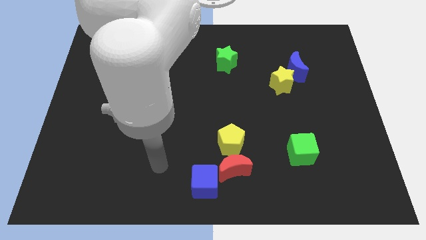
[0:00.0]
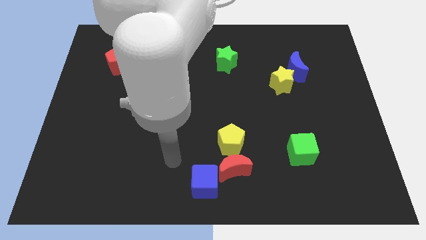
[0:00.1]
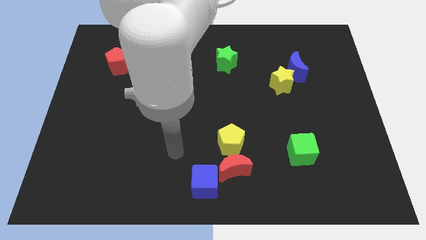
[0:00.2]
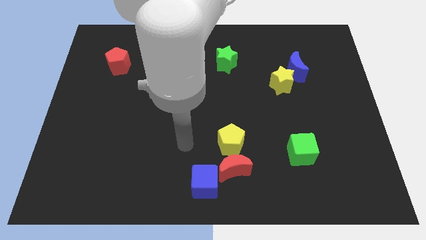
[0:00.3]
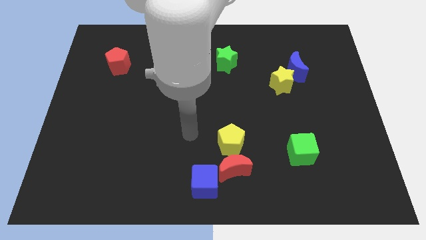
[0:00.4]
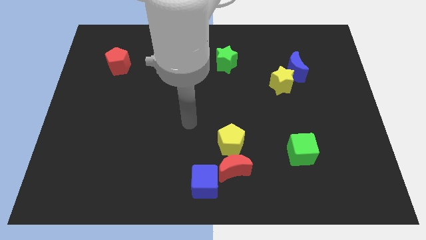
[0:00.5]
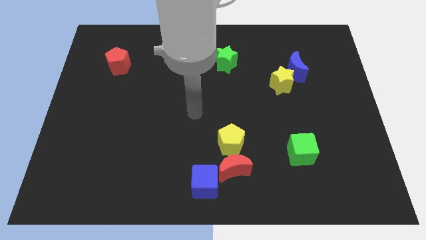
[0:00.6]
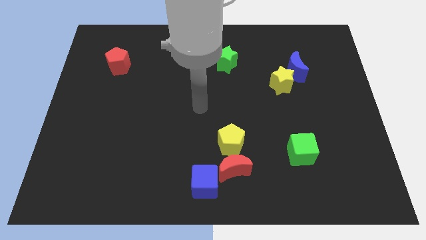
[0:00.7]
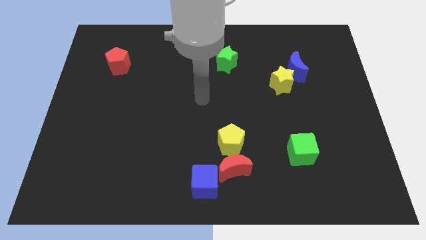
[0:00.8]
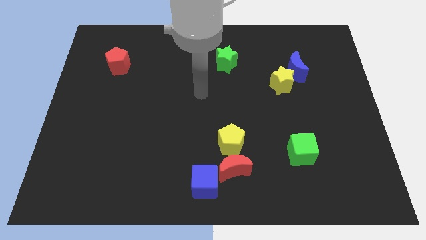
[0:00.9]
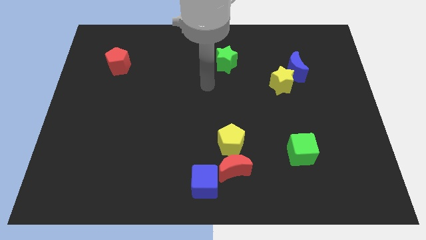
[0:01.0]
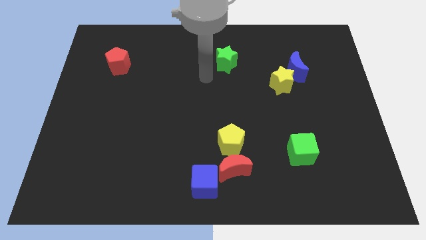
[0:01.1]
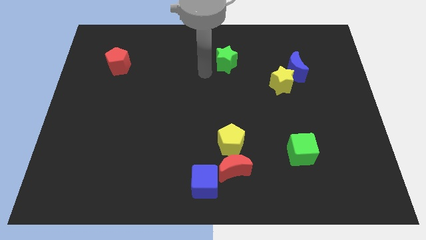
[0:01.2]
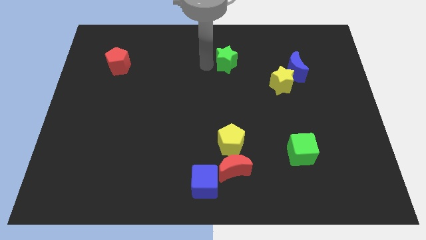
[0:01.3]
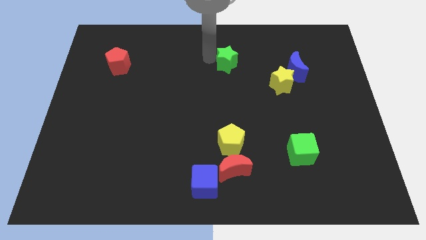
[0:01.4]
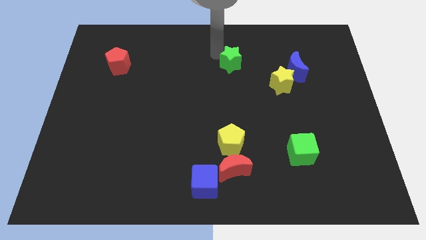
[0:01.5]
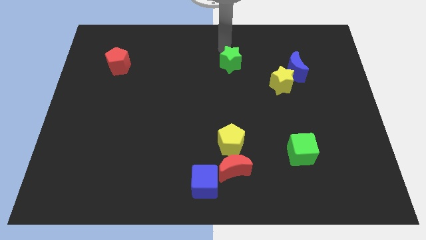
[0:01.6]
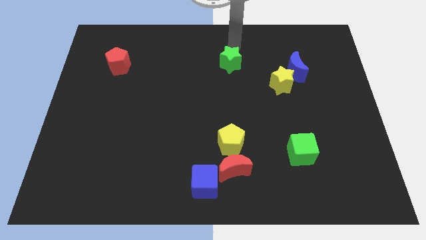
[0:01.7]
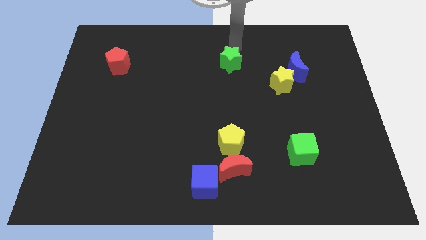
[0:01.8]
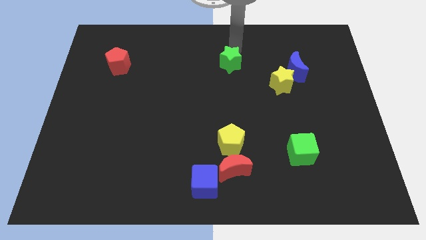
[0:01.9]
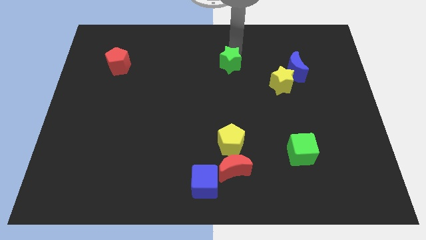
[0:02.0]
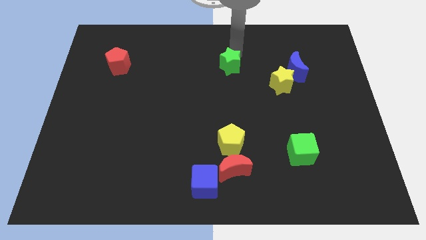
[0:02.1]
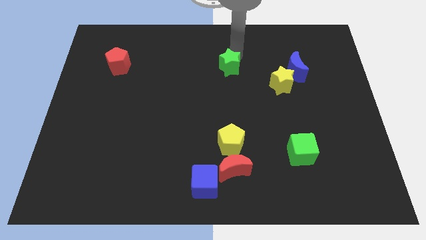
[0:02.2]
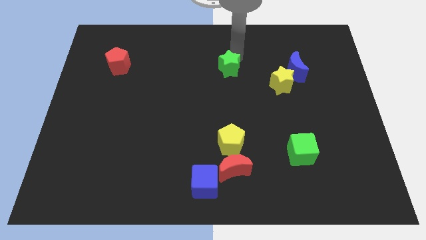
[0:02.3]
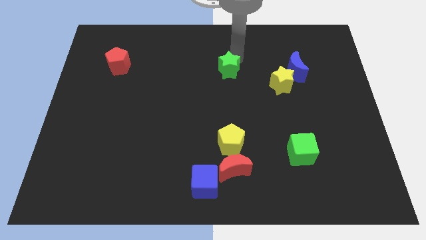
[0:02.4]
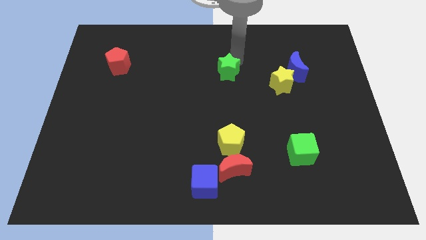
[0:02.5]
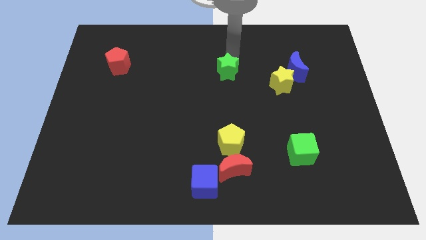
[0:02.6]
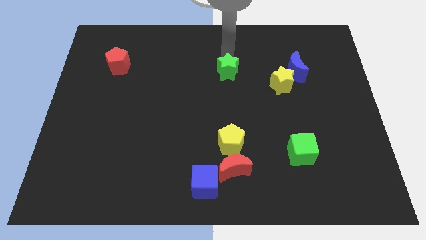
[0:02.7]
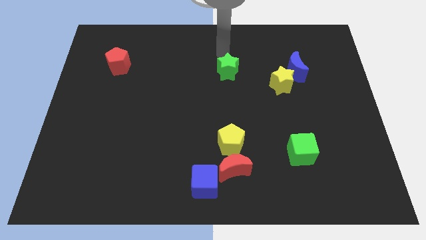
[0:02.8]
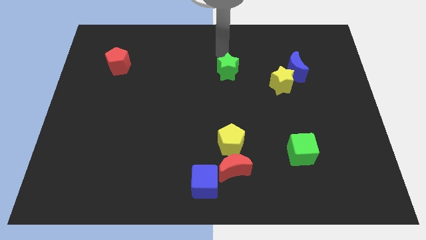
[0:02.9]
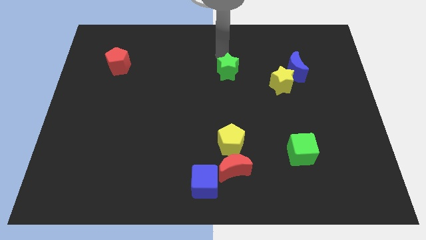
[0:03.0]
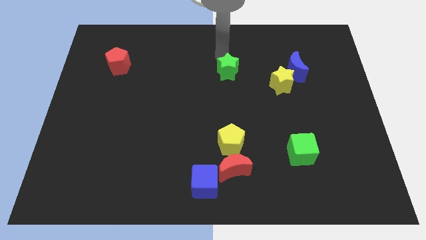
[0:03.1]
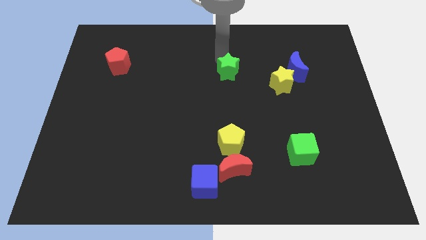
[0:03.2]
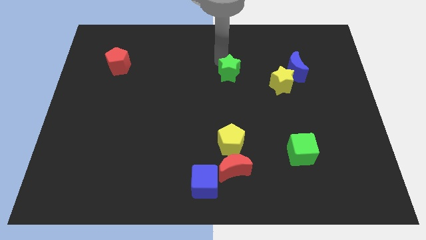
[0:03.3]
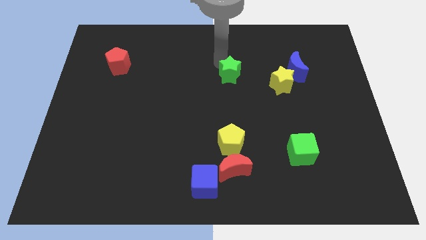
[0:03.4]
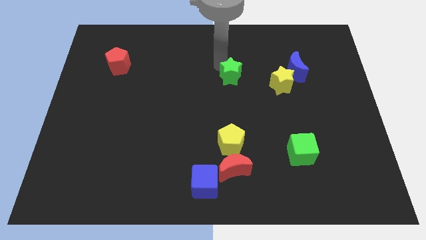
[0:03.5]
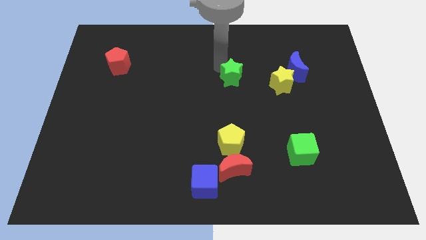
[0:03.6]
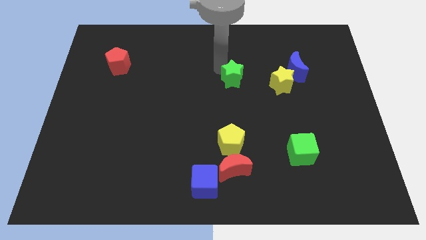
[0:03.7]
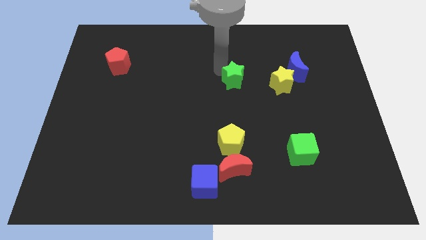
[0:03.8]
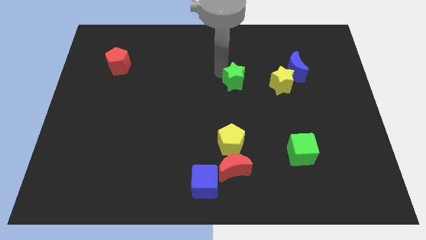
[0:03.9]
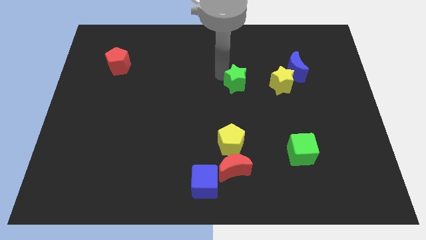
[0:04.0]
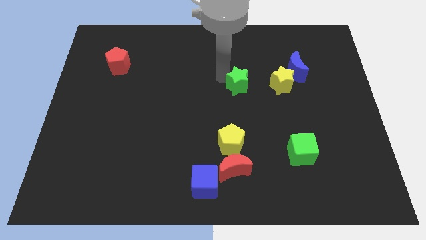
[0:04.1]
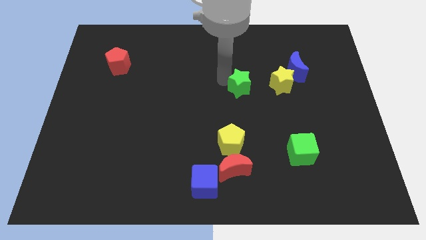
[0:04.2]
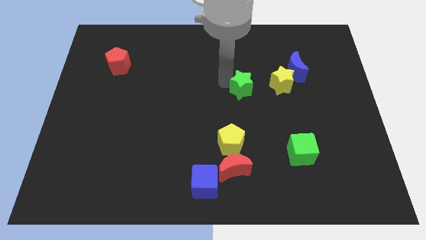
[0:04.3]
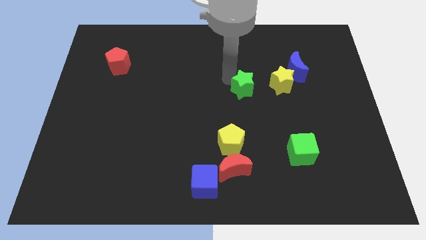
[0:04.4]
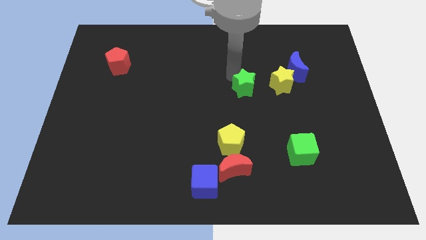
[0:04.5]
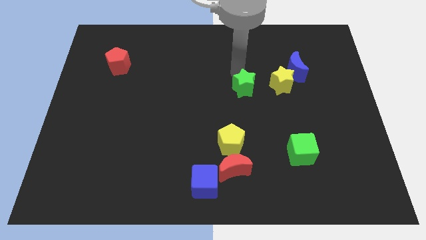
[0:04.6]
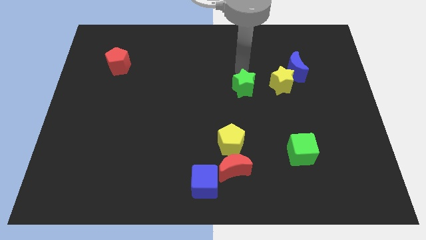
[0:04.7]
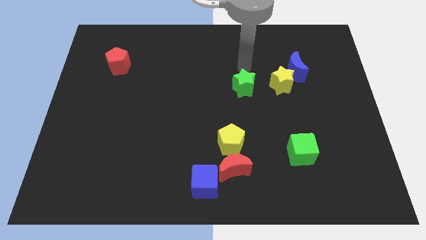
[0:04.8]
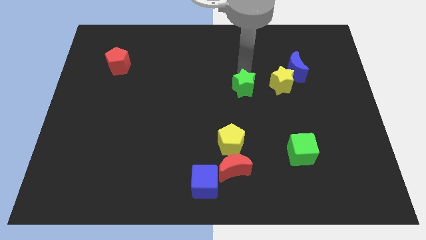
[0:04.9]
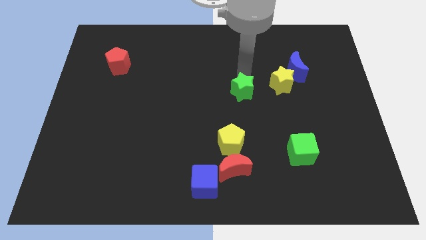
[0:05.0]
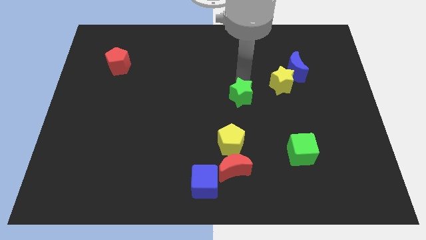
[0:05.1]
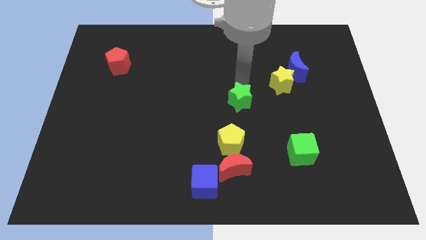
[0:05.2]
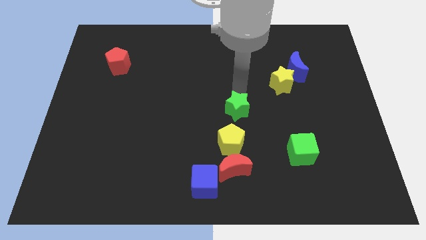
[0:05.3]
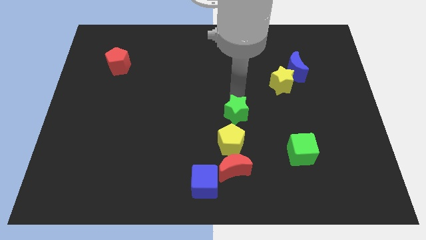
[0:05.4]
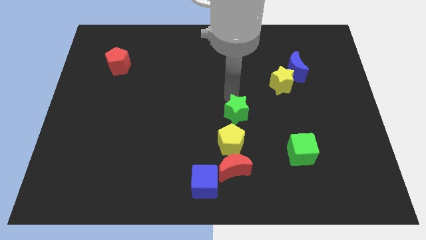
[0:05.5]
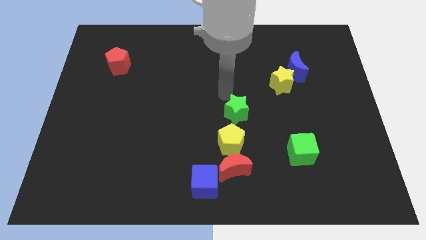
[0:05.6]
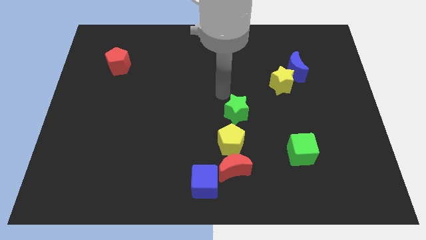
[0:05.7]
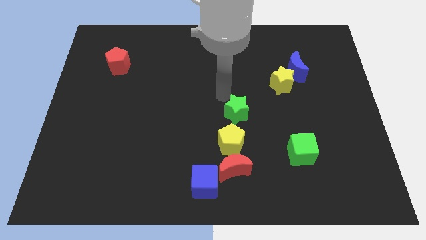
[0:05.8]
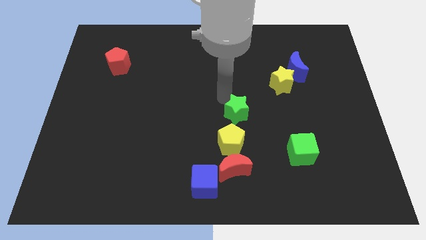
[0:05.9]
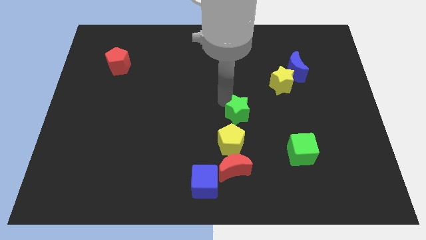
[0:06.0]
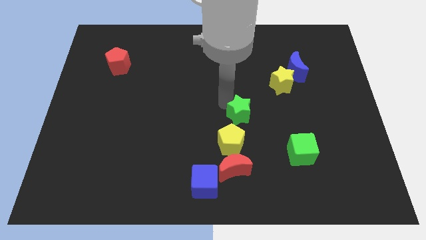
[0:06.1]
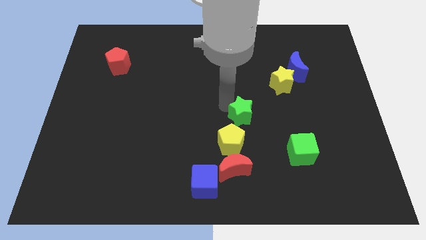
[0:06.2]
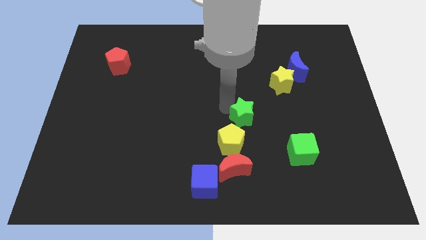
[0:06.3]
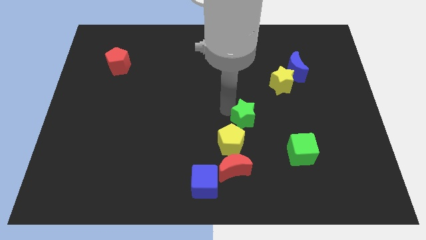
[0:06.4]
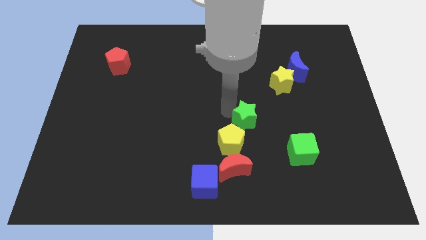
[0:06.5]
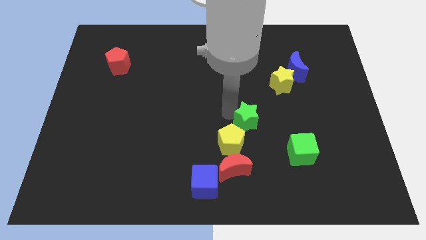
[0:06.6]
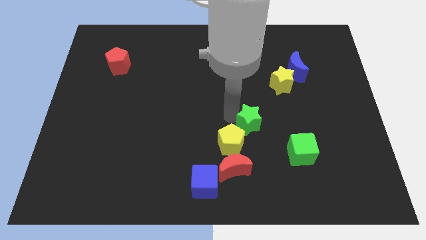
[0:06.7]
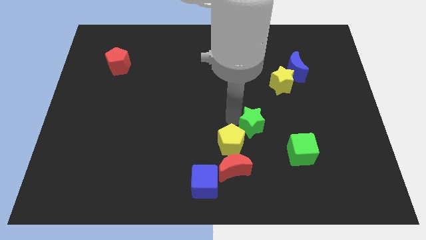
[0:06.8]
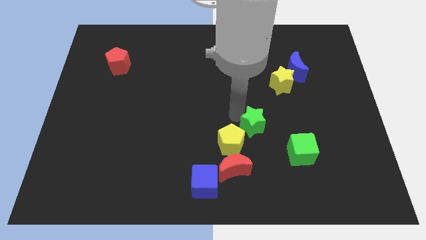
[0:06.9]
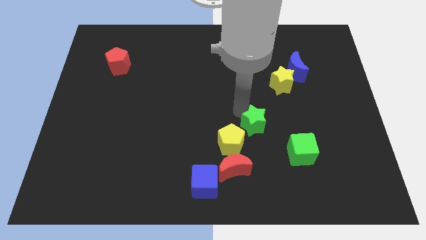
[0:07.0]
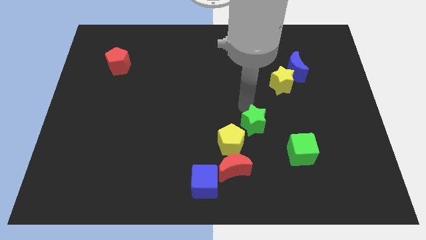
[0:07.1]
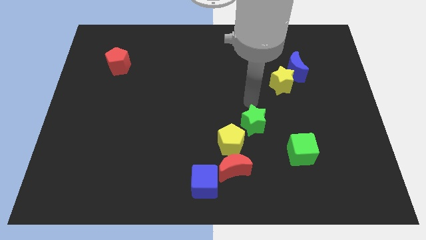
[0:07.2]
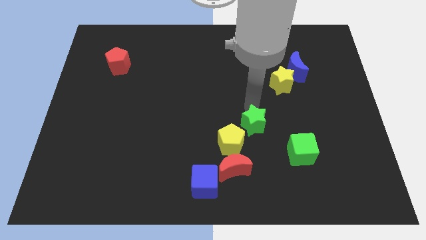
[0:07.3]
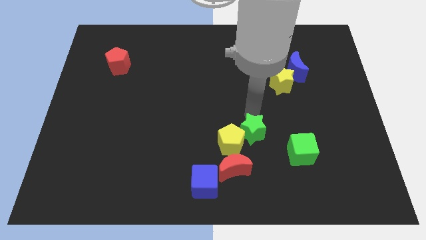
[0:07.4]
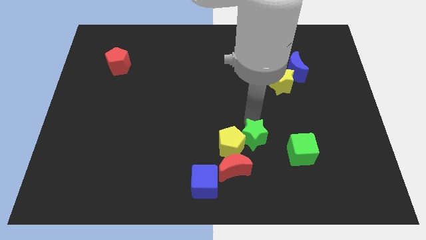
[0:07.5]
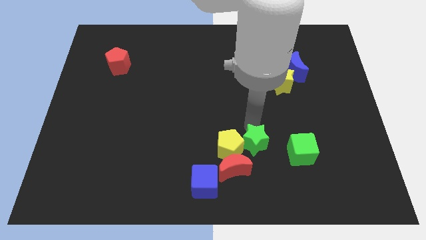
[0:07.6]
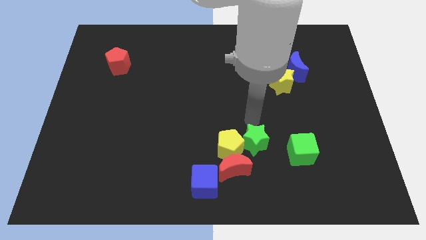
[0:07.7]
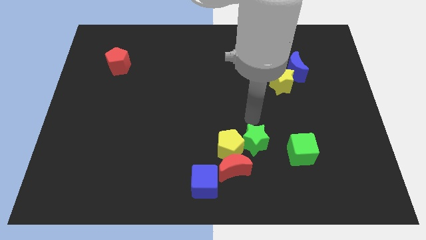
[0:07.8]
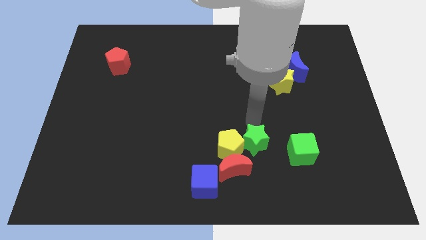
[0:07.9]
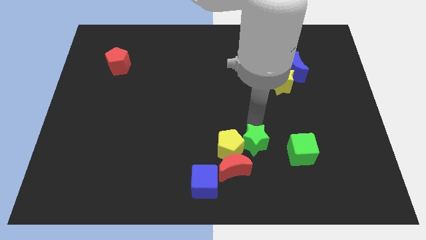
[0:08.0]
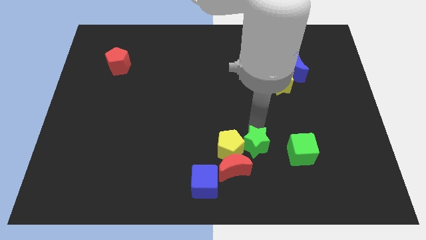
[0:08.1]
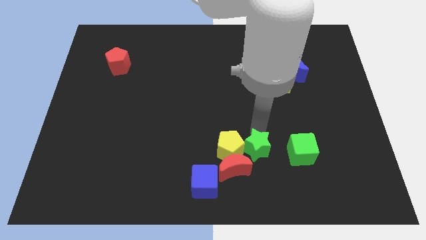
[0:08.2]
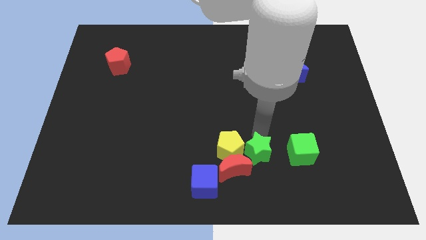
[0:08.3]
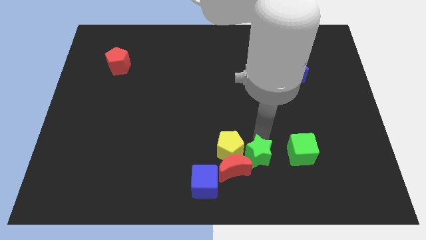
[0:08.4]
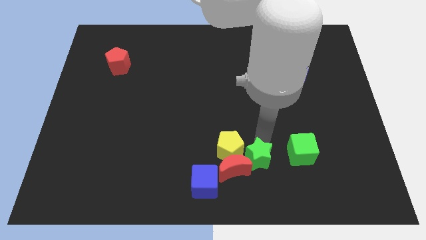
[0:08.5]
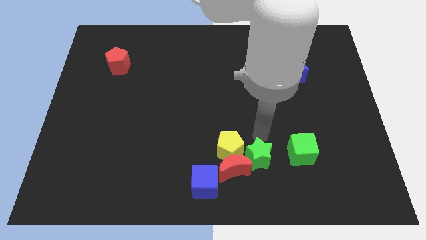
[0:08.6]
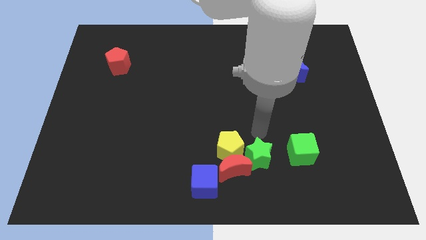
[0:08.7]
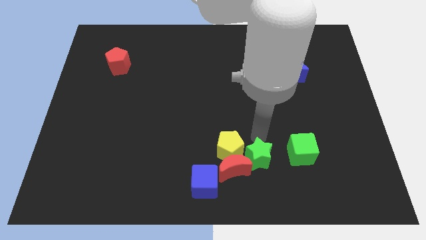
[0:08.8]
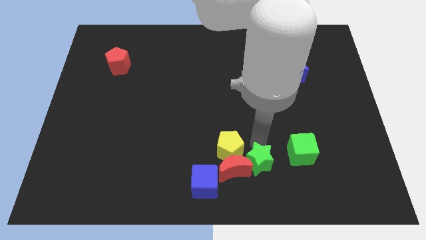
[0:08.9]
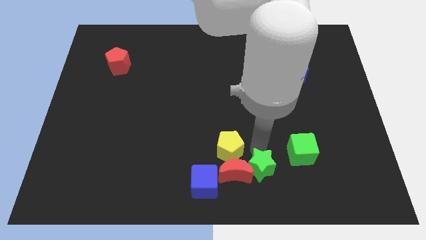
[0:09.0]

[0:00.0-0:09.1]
put the green star to the bottom side
